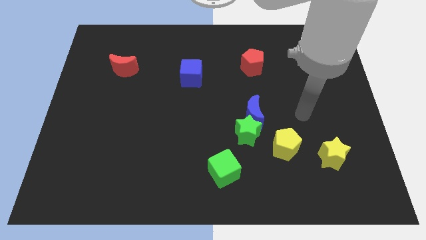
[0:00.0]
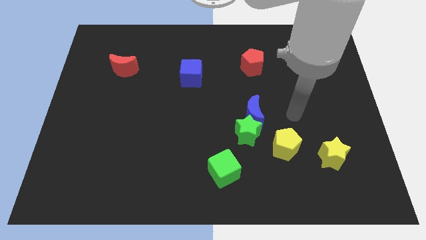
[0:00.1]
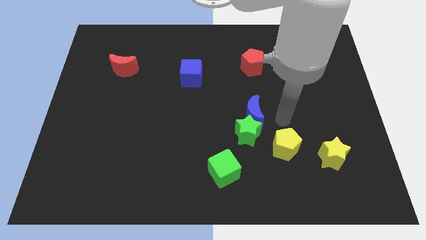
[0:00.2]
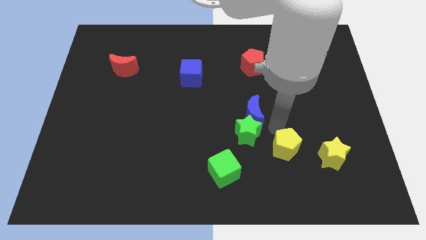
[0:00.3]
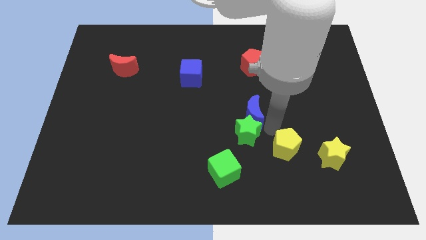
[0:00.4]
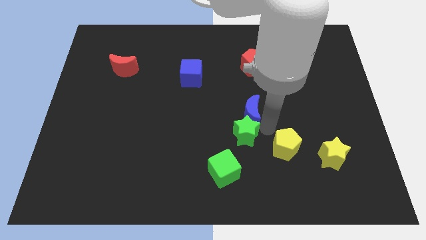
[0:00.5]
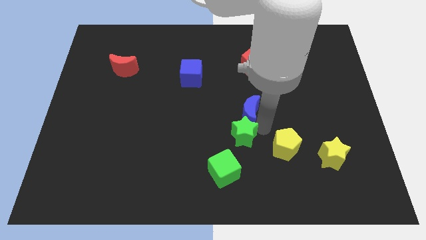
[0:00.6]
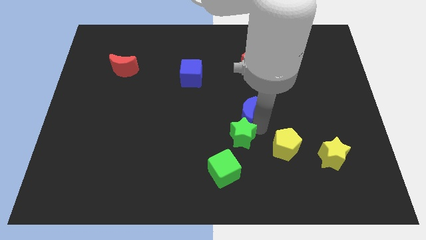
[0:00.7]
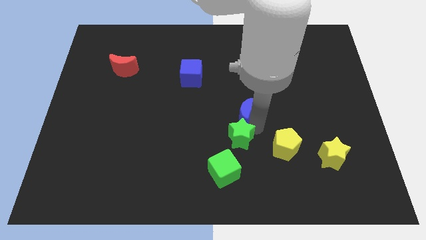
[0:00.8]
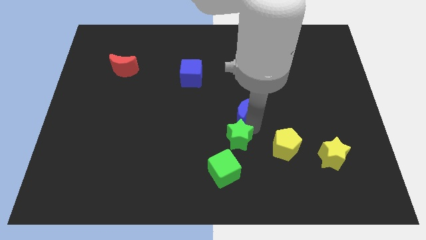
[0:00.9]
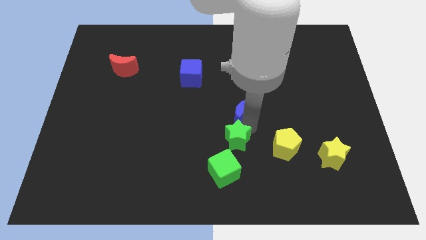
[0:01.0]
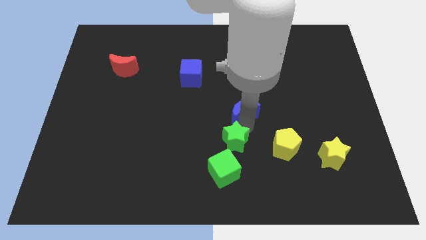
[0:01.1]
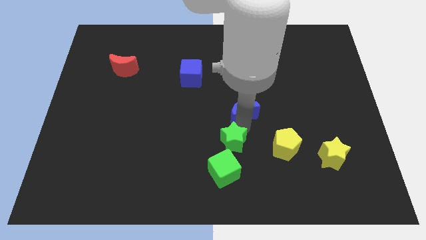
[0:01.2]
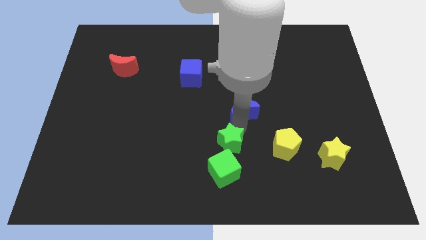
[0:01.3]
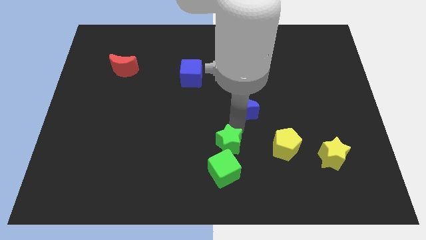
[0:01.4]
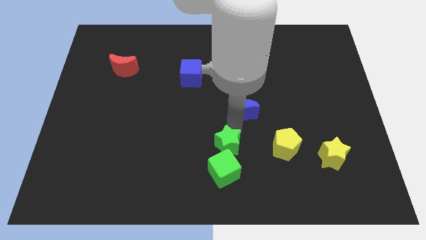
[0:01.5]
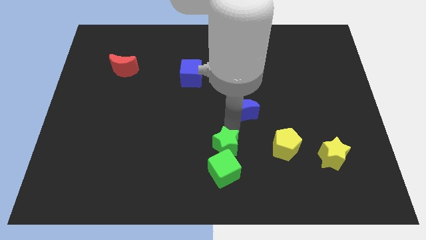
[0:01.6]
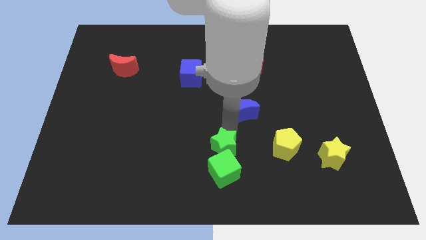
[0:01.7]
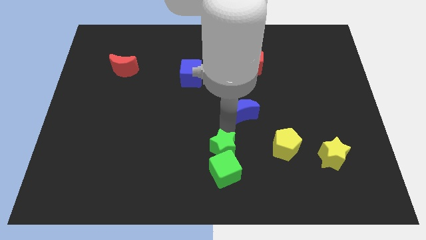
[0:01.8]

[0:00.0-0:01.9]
separate the green star from the blue moon and yellow pentagon

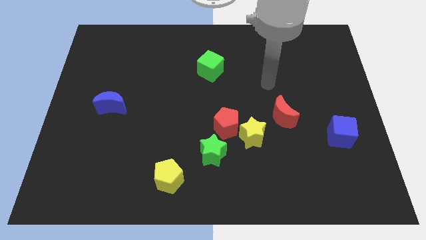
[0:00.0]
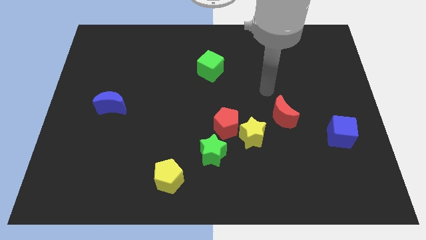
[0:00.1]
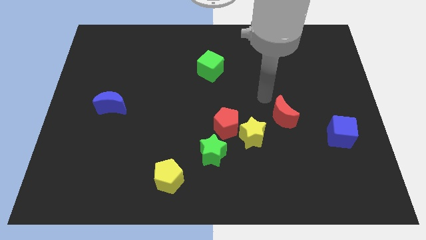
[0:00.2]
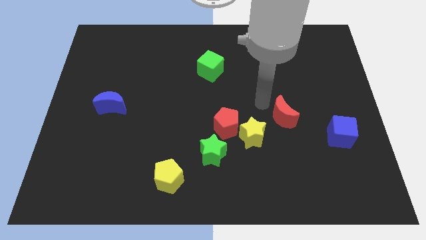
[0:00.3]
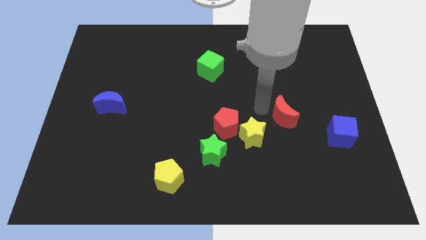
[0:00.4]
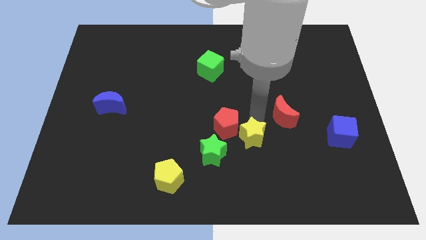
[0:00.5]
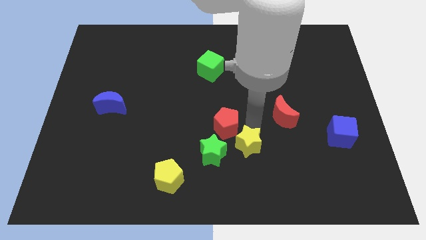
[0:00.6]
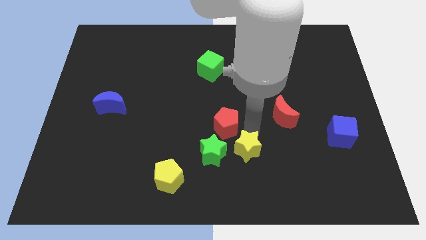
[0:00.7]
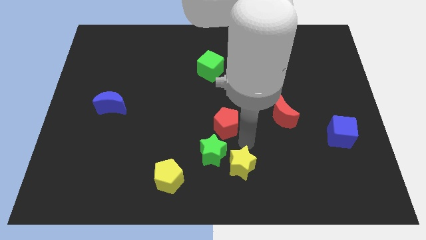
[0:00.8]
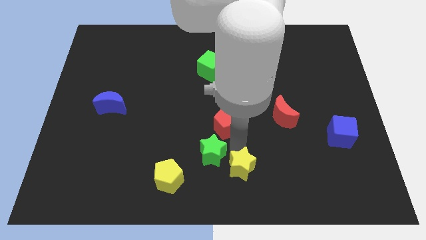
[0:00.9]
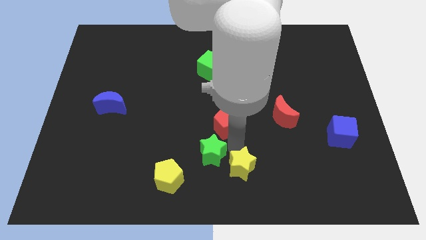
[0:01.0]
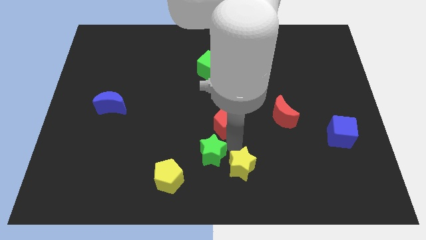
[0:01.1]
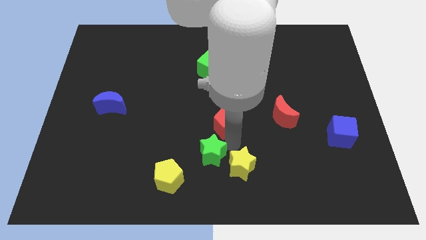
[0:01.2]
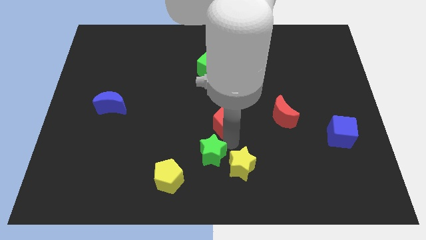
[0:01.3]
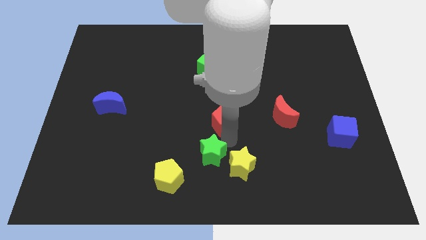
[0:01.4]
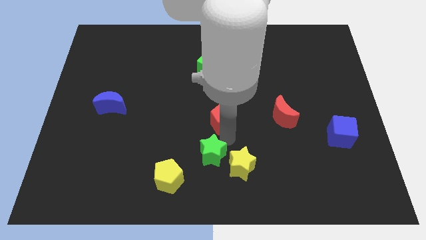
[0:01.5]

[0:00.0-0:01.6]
pull the red pentagon apart from the yellow star and green star

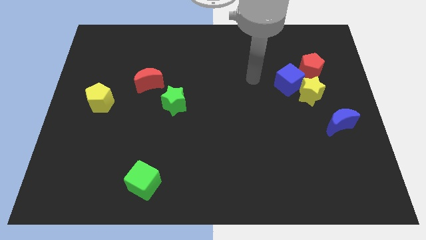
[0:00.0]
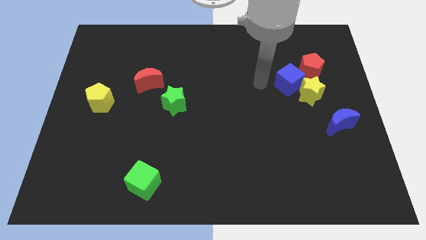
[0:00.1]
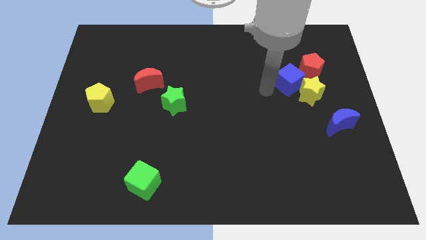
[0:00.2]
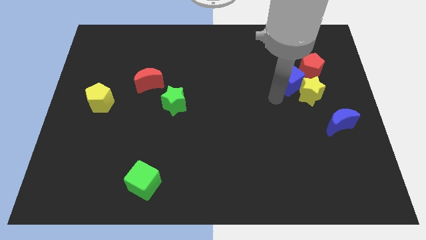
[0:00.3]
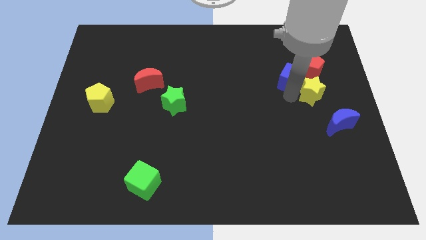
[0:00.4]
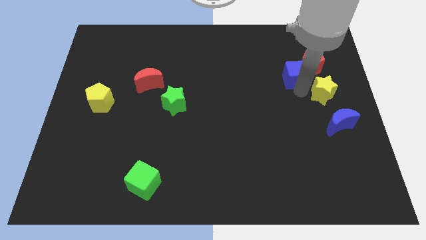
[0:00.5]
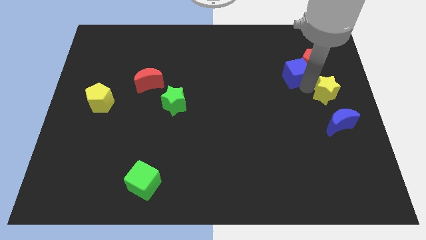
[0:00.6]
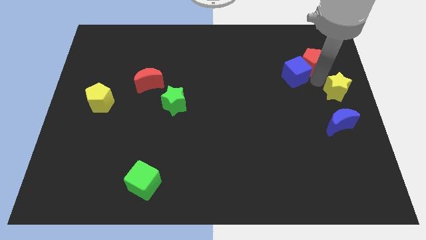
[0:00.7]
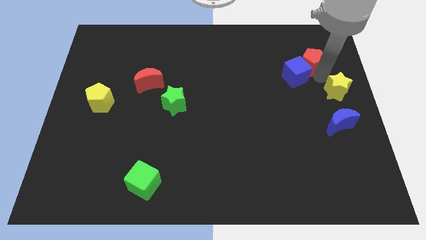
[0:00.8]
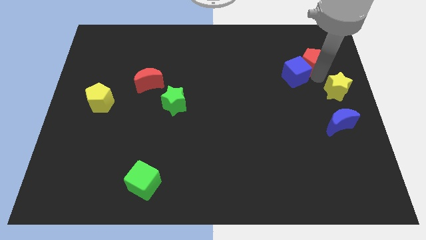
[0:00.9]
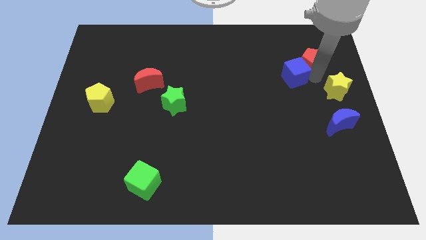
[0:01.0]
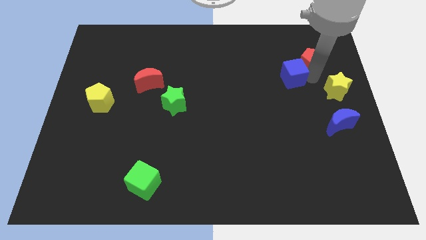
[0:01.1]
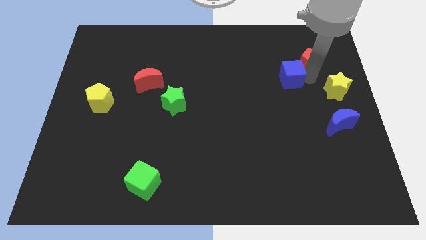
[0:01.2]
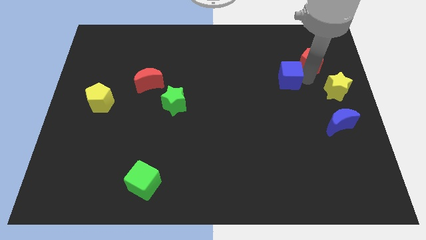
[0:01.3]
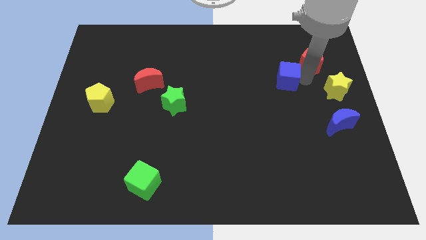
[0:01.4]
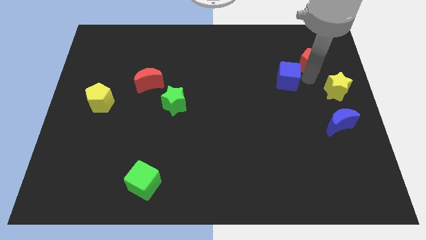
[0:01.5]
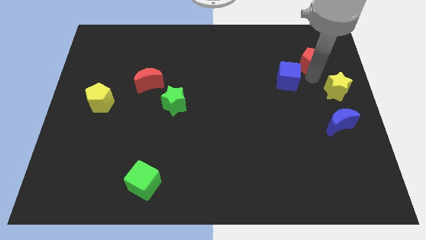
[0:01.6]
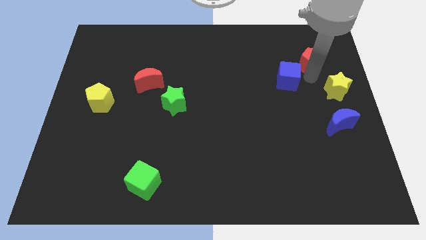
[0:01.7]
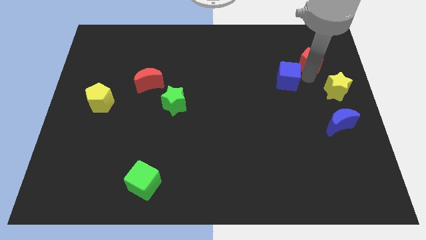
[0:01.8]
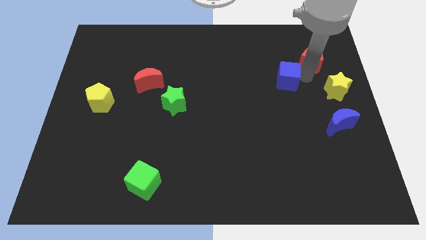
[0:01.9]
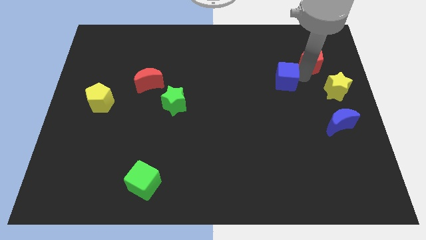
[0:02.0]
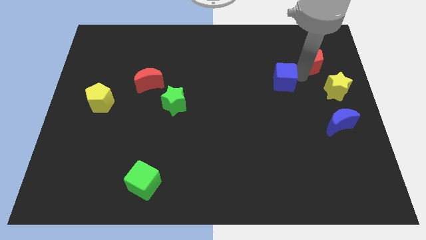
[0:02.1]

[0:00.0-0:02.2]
pull the blue cube apart from the yellow star and red pentagon

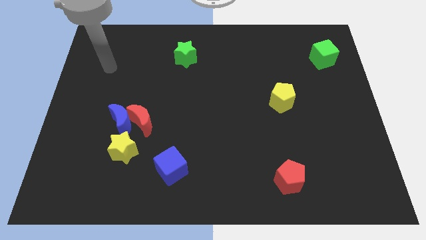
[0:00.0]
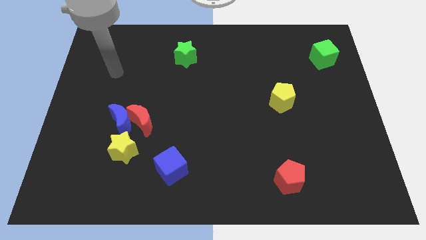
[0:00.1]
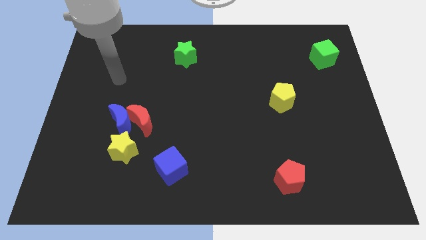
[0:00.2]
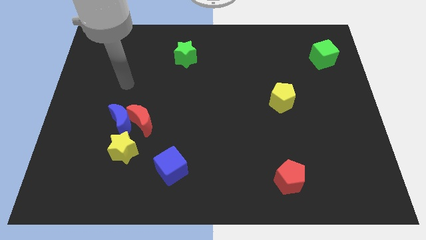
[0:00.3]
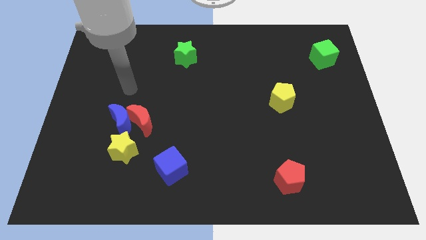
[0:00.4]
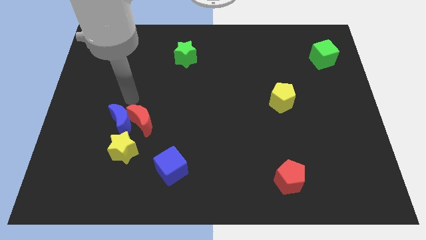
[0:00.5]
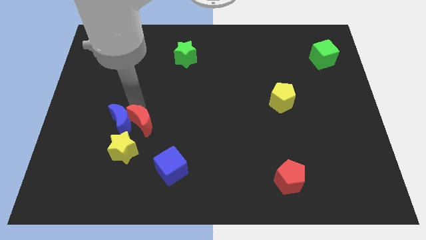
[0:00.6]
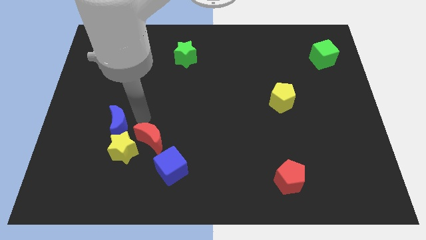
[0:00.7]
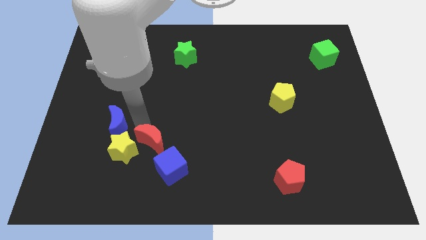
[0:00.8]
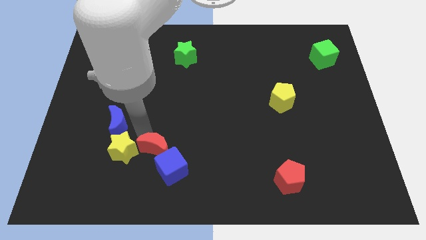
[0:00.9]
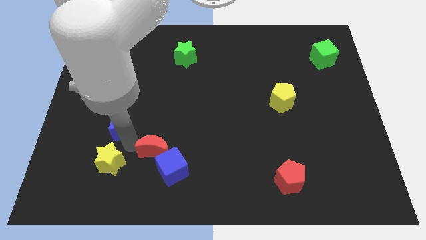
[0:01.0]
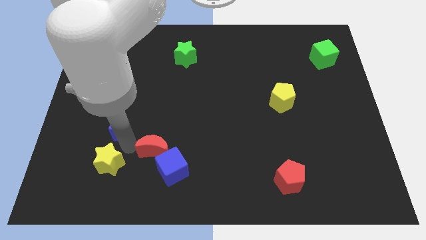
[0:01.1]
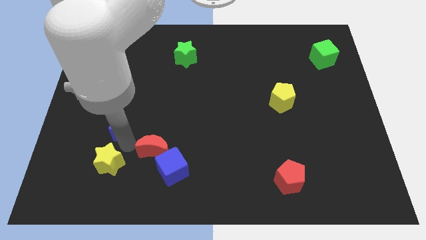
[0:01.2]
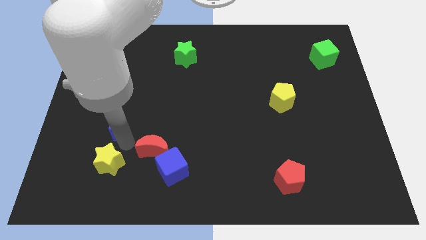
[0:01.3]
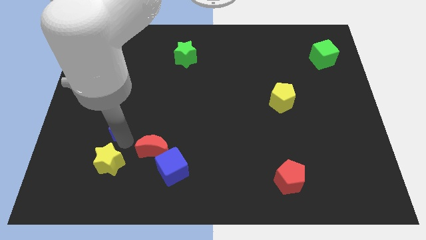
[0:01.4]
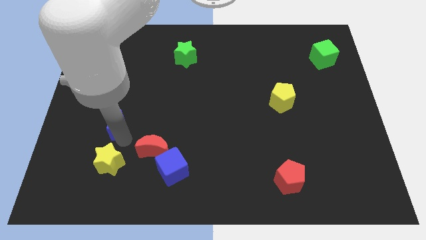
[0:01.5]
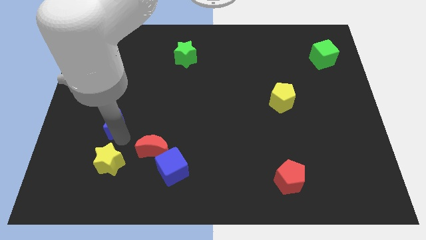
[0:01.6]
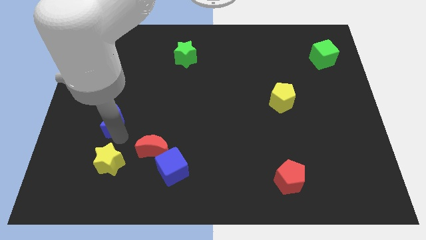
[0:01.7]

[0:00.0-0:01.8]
separate the blue moon from the red moon and yellow star

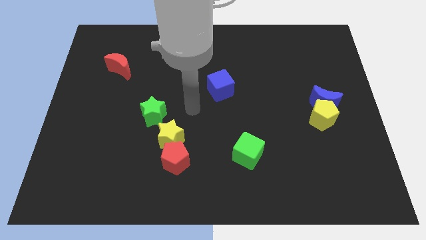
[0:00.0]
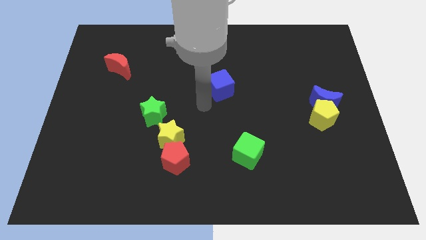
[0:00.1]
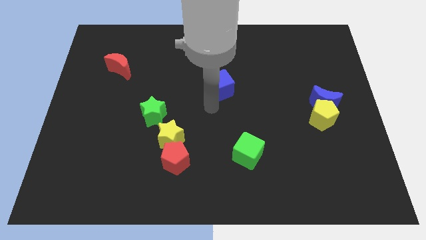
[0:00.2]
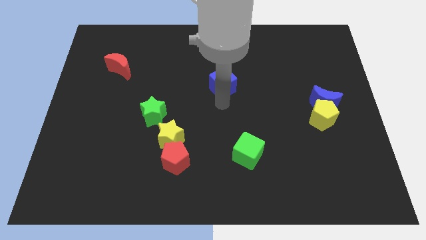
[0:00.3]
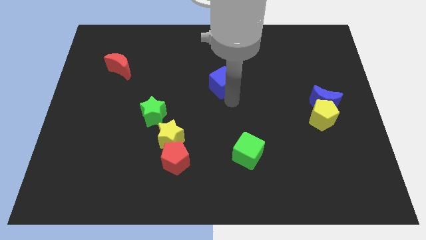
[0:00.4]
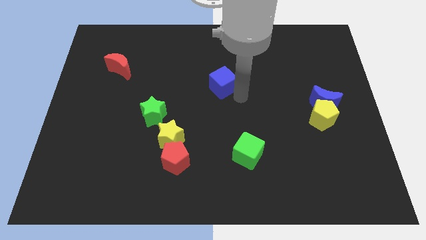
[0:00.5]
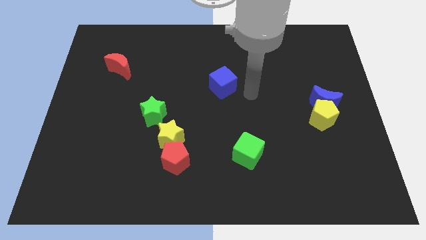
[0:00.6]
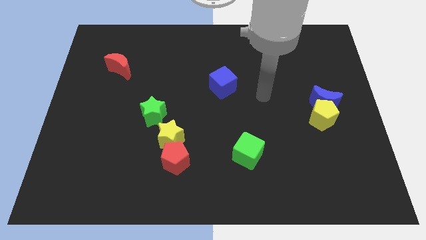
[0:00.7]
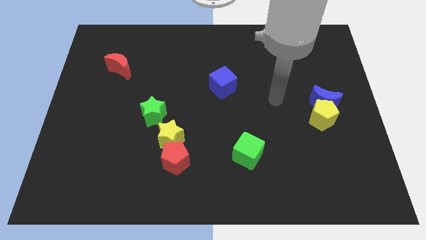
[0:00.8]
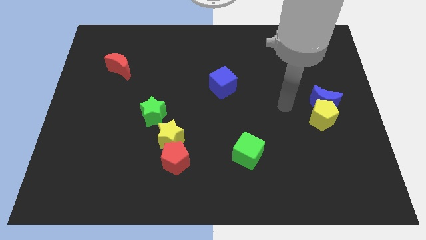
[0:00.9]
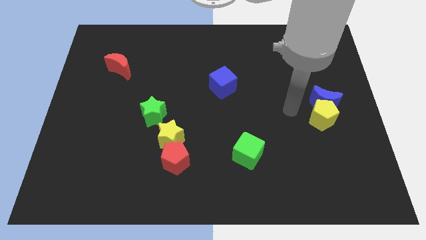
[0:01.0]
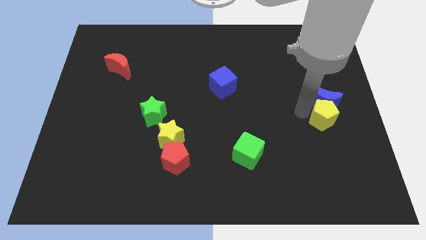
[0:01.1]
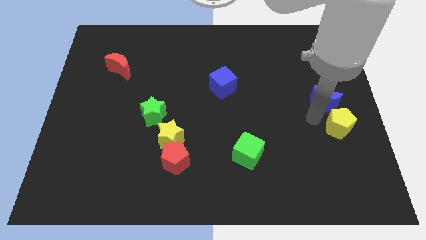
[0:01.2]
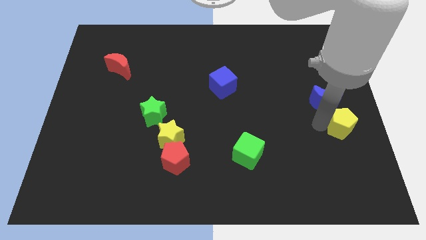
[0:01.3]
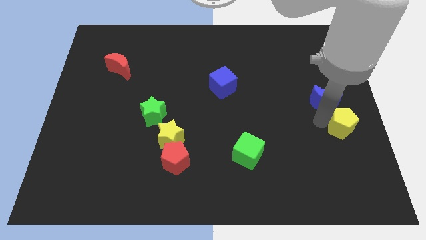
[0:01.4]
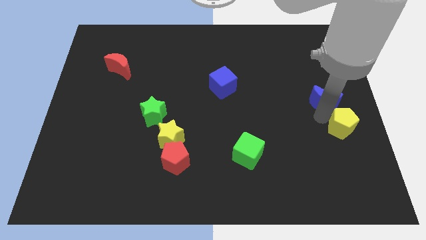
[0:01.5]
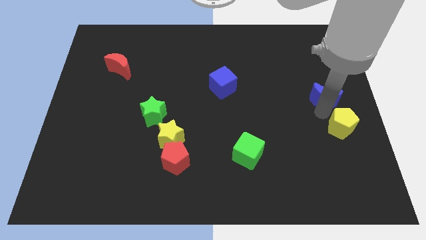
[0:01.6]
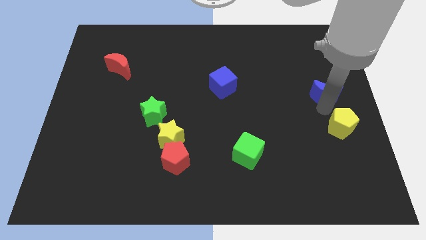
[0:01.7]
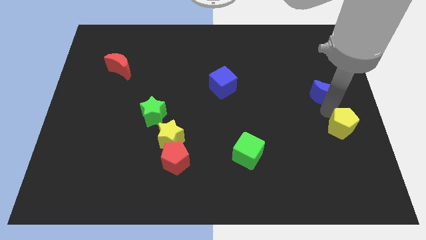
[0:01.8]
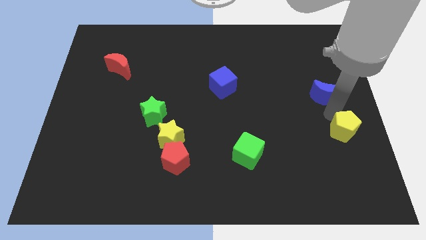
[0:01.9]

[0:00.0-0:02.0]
pull the blue moon apart from the yellow pentagon
